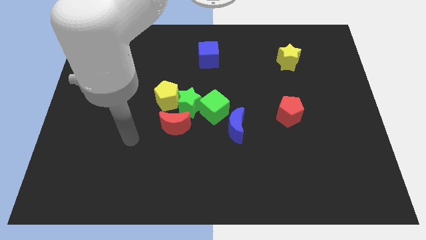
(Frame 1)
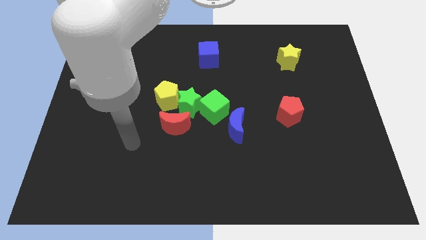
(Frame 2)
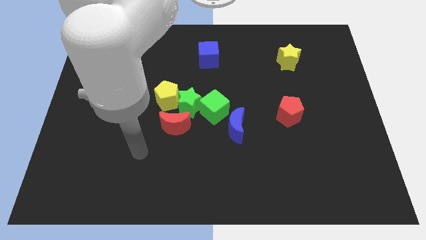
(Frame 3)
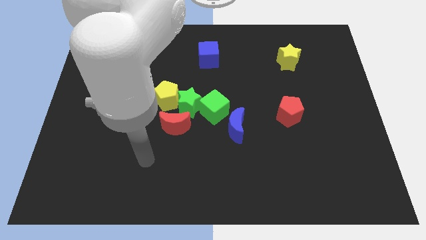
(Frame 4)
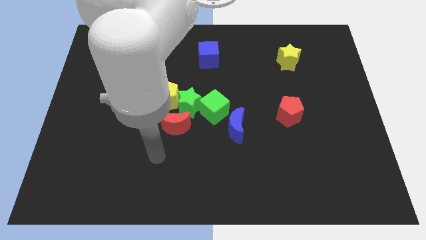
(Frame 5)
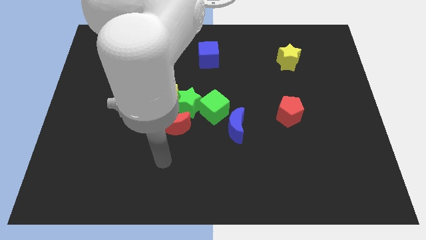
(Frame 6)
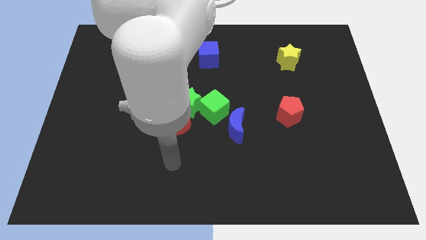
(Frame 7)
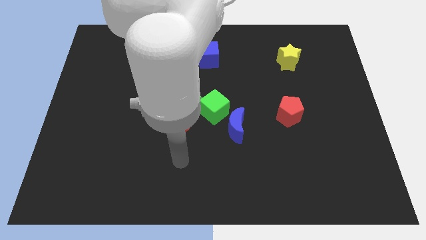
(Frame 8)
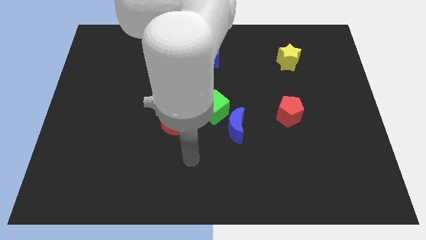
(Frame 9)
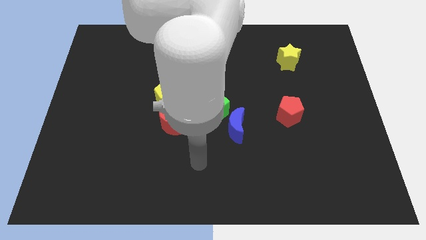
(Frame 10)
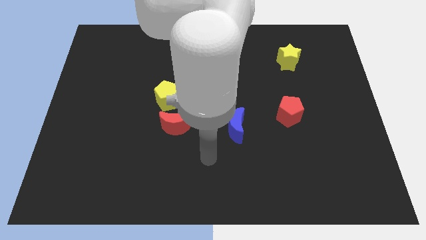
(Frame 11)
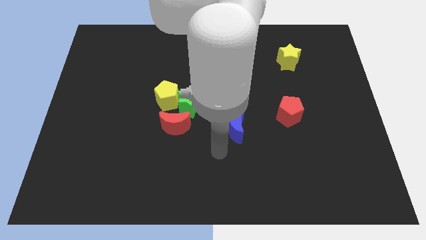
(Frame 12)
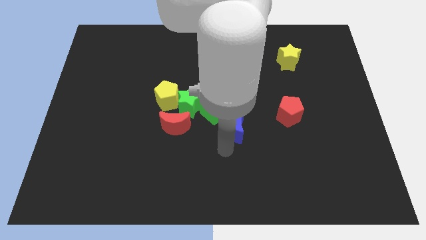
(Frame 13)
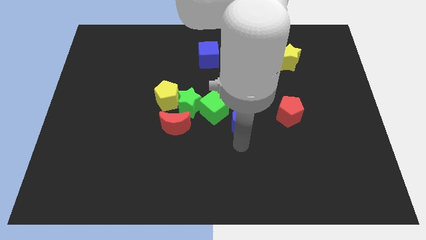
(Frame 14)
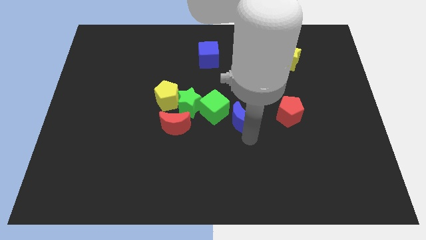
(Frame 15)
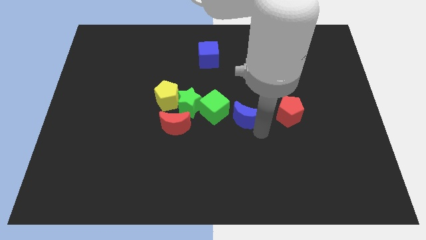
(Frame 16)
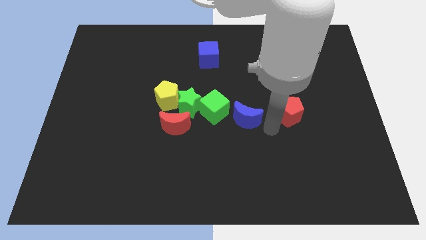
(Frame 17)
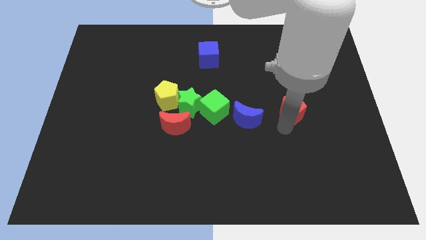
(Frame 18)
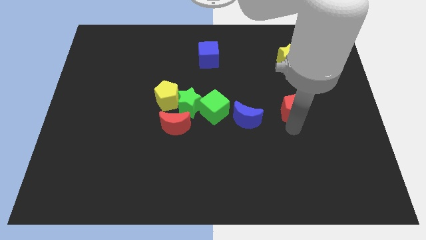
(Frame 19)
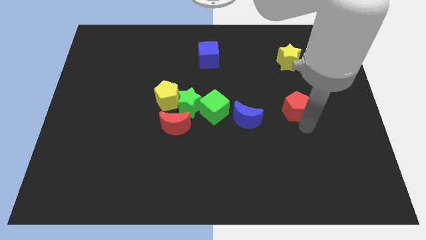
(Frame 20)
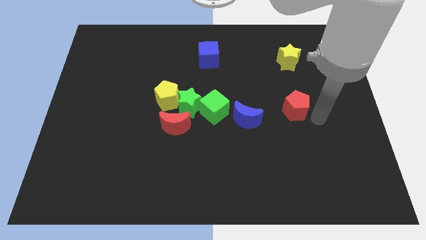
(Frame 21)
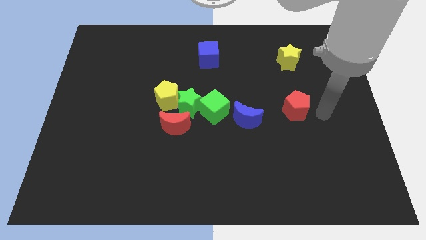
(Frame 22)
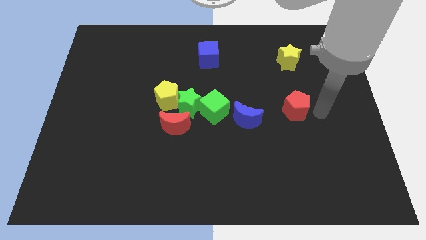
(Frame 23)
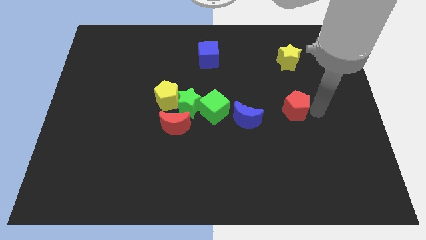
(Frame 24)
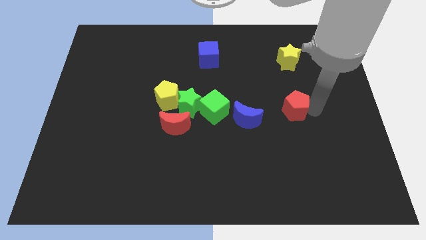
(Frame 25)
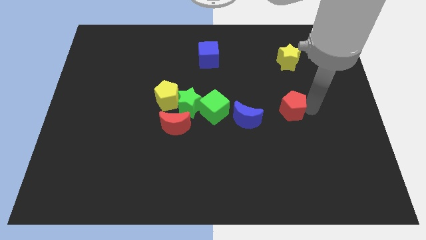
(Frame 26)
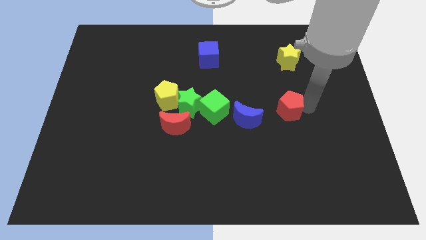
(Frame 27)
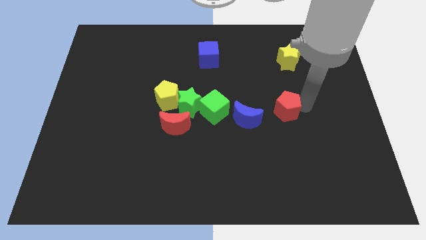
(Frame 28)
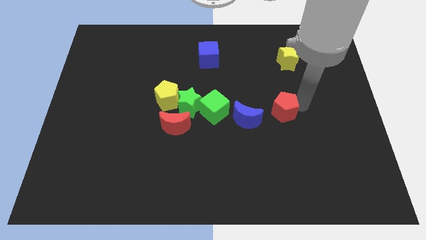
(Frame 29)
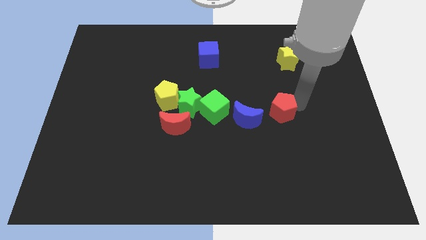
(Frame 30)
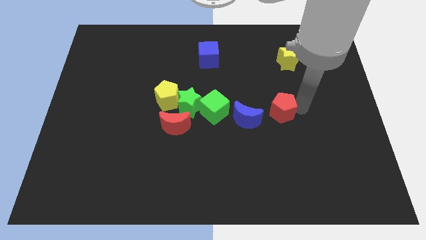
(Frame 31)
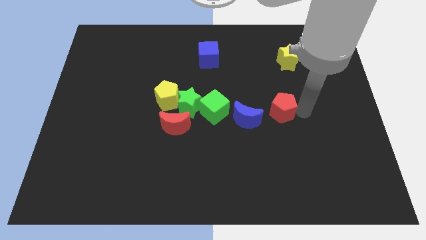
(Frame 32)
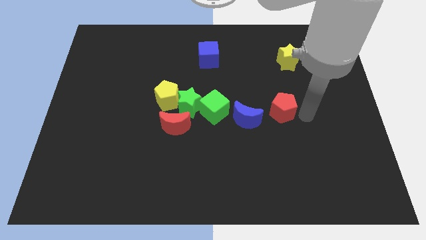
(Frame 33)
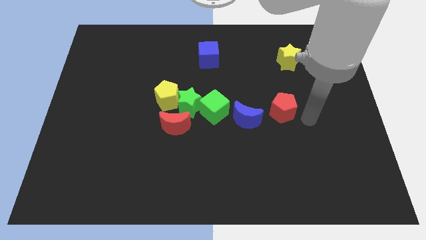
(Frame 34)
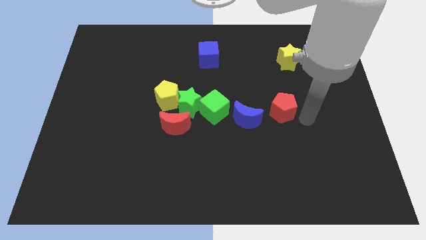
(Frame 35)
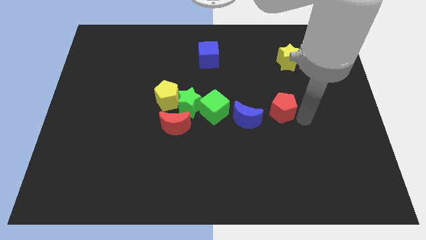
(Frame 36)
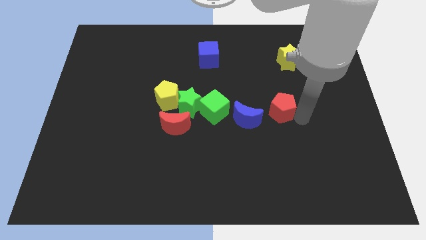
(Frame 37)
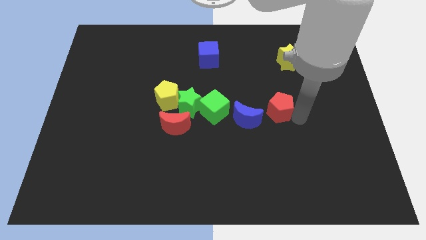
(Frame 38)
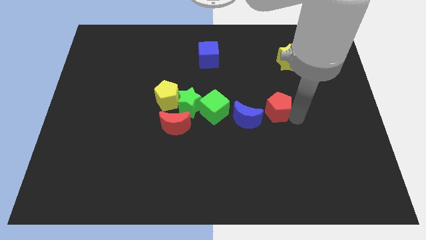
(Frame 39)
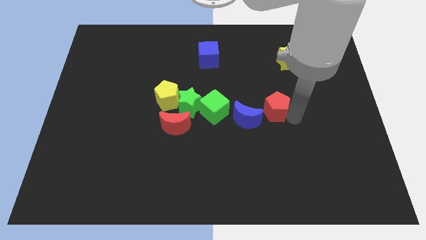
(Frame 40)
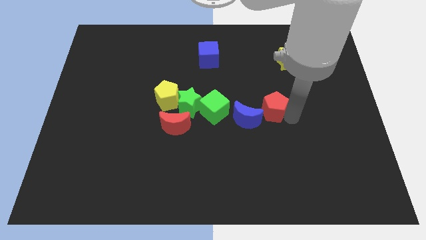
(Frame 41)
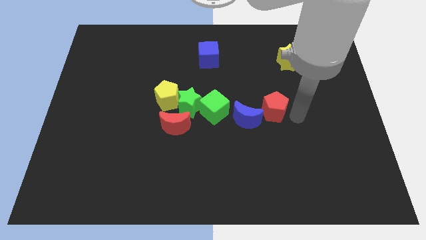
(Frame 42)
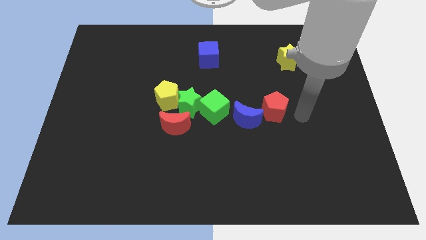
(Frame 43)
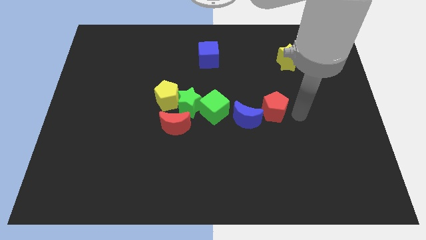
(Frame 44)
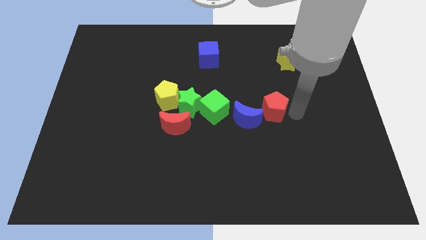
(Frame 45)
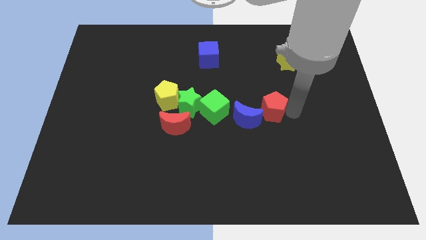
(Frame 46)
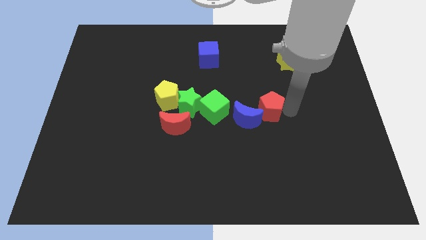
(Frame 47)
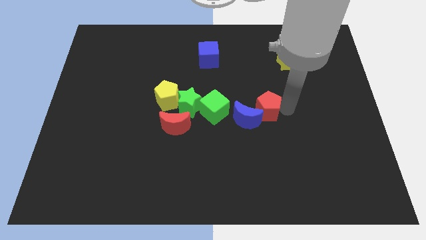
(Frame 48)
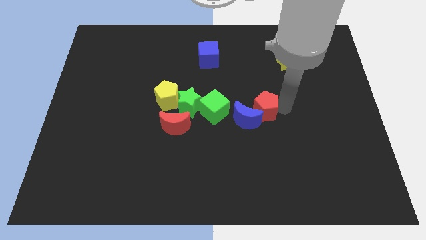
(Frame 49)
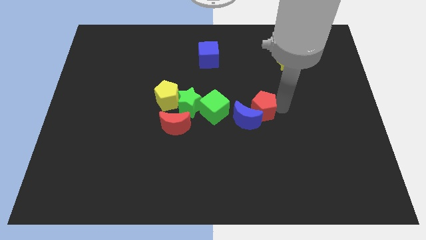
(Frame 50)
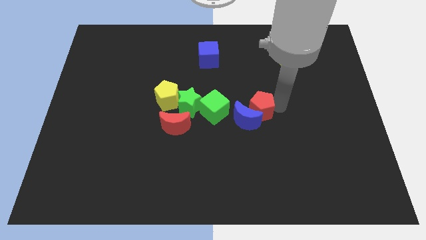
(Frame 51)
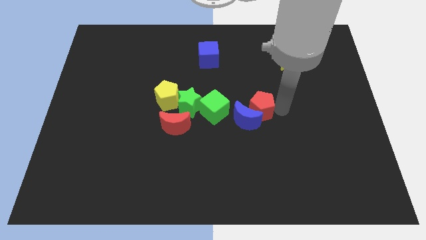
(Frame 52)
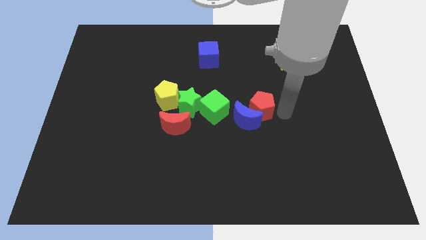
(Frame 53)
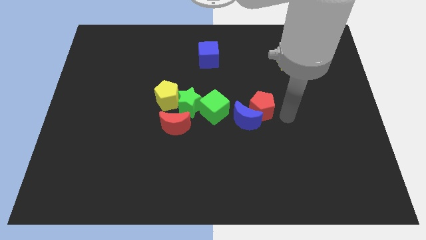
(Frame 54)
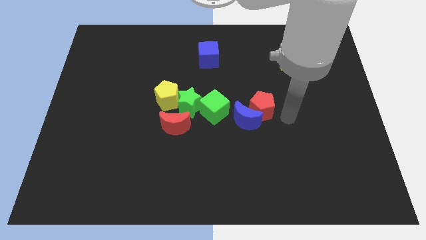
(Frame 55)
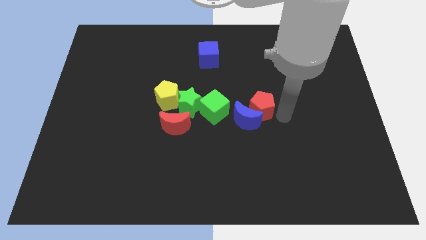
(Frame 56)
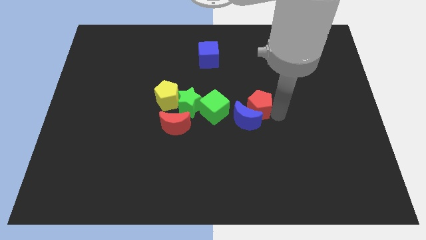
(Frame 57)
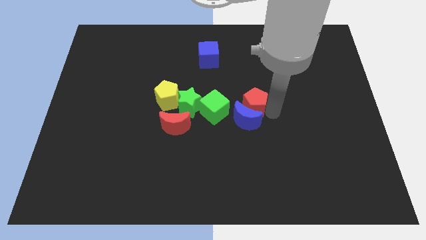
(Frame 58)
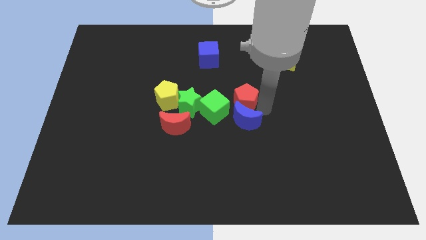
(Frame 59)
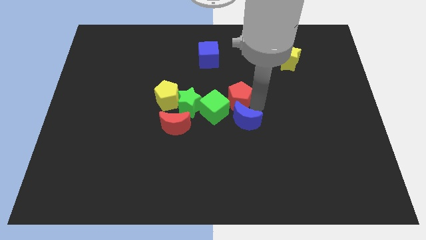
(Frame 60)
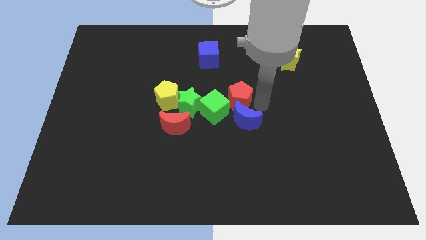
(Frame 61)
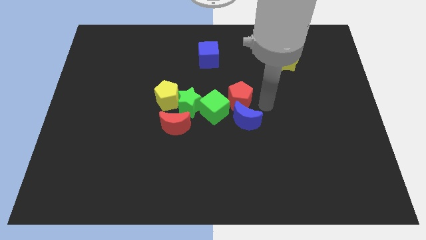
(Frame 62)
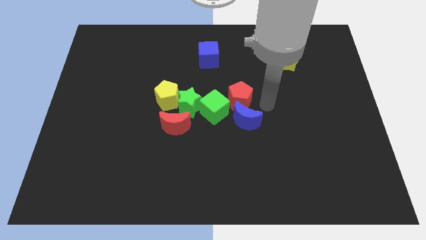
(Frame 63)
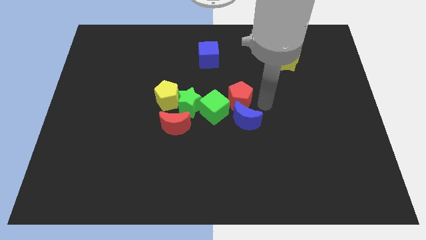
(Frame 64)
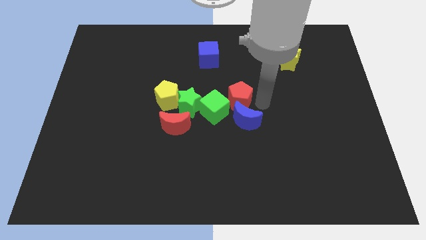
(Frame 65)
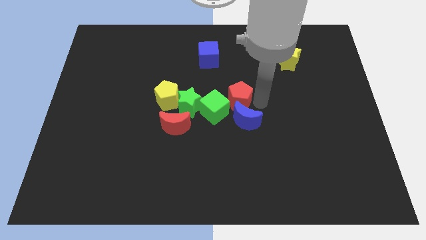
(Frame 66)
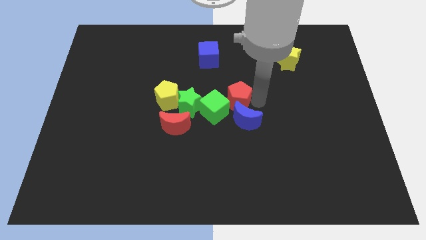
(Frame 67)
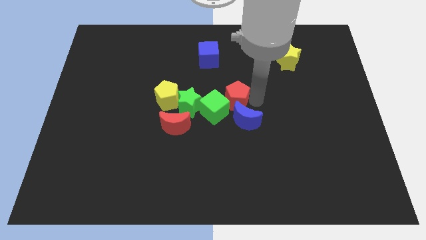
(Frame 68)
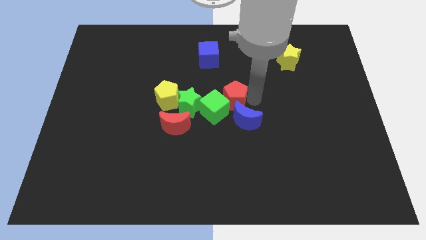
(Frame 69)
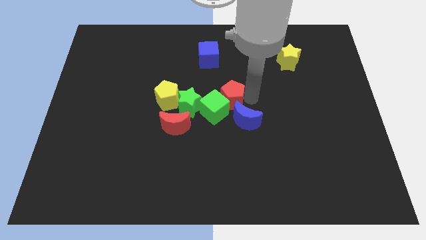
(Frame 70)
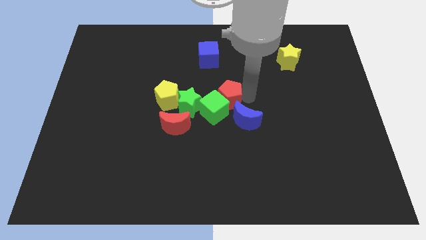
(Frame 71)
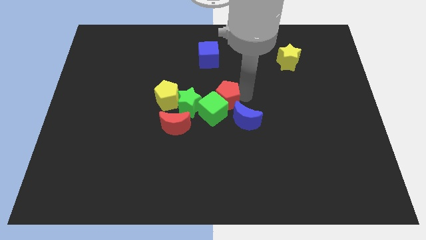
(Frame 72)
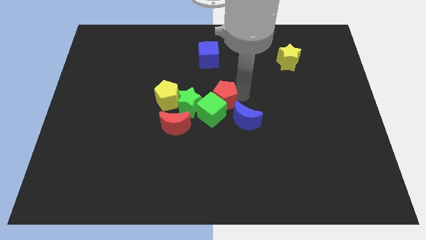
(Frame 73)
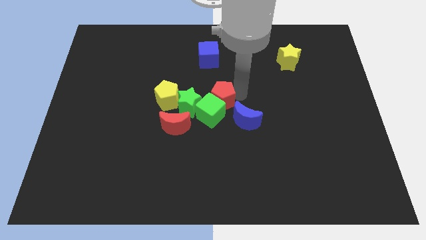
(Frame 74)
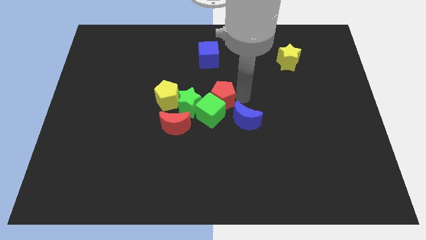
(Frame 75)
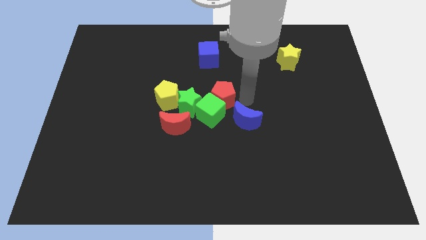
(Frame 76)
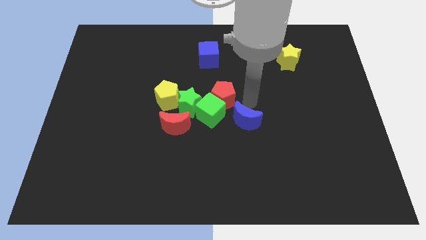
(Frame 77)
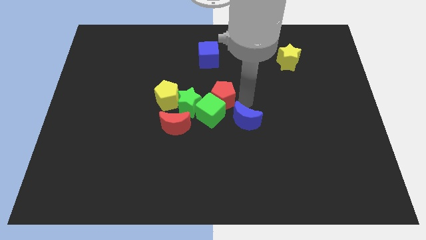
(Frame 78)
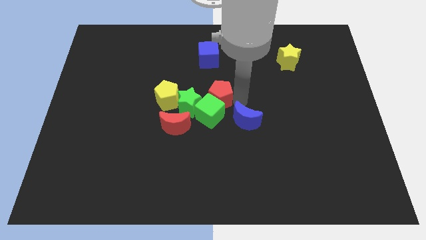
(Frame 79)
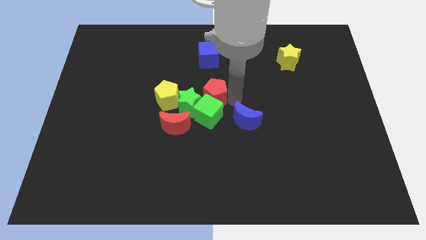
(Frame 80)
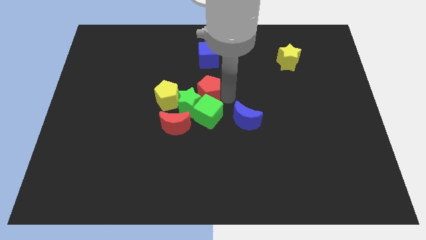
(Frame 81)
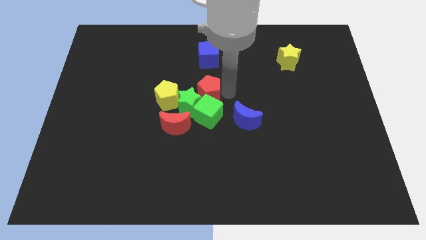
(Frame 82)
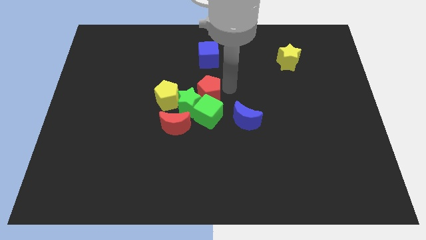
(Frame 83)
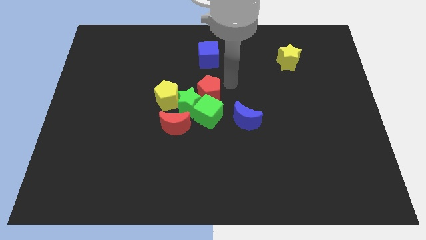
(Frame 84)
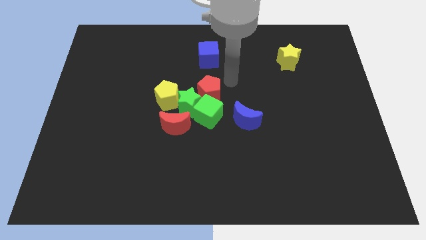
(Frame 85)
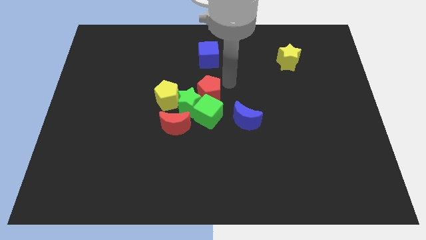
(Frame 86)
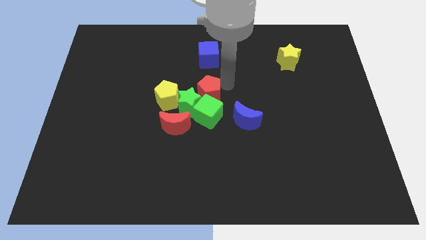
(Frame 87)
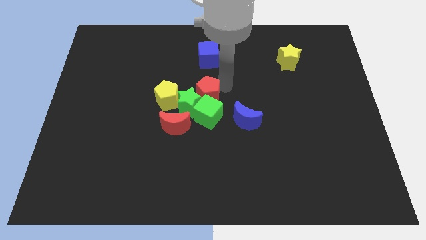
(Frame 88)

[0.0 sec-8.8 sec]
push the red pentagon towards the green star
